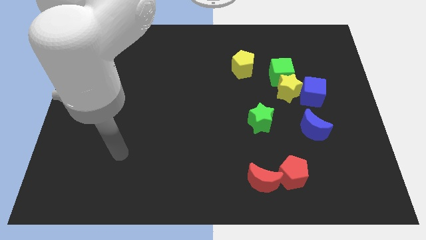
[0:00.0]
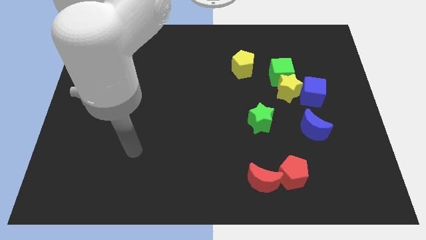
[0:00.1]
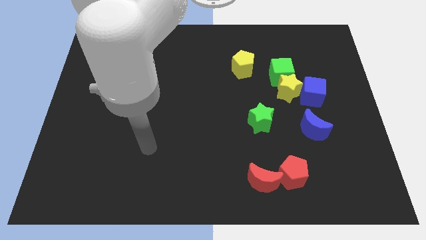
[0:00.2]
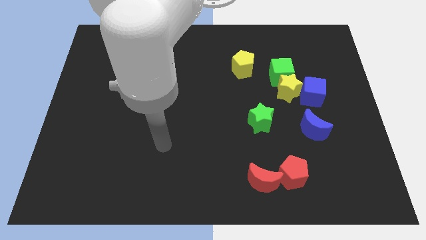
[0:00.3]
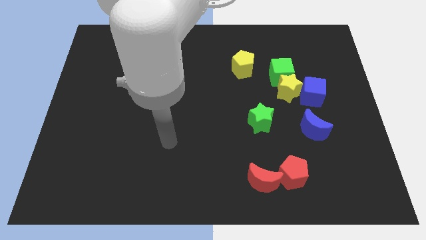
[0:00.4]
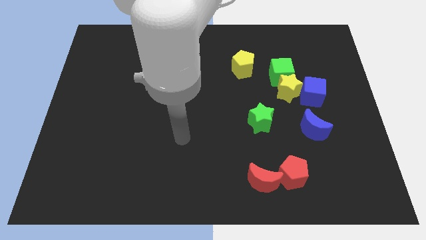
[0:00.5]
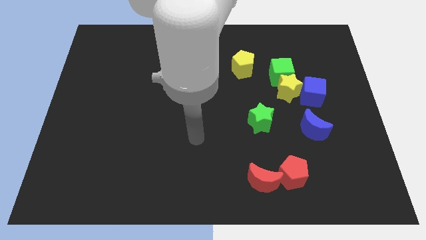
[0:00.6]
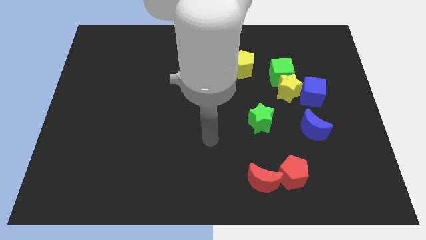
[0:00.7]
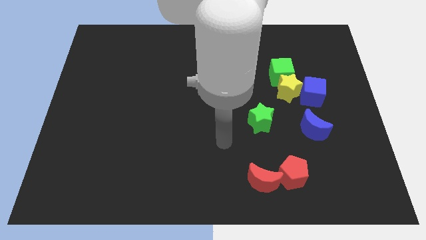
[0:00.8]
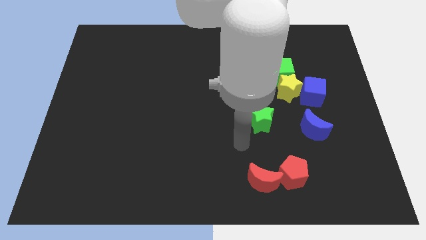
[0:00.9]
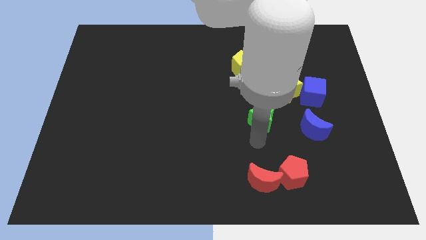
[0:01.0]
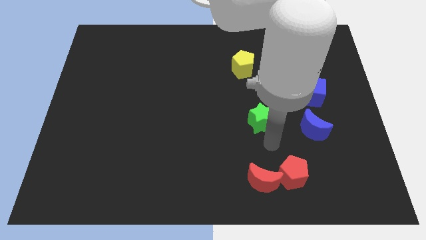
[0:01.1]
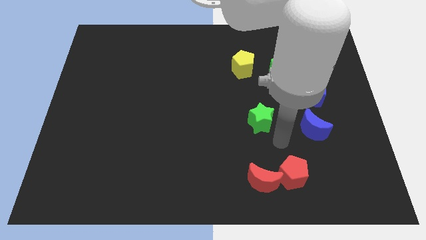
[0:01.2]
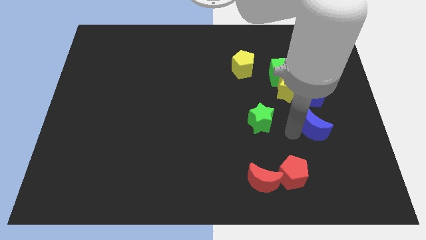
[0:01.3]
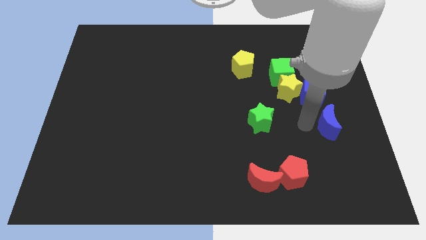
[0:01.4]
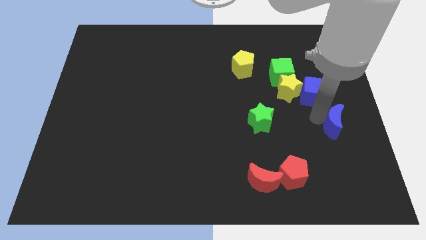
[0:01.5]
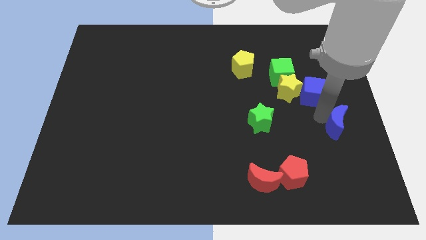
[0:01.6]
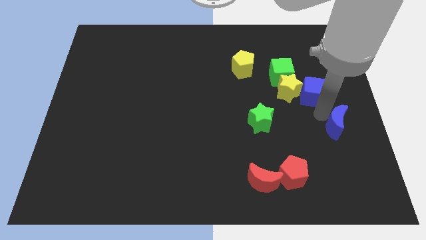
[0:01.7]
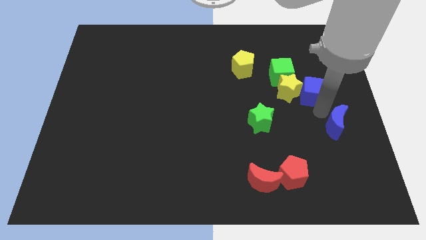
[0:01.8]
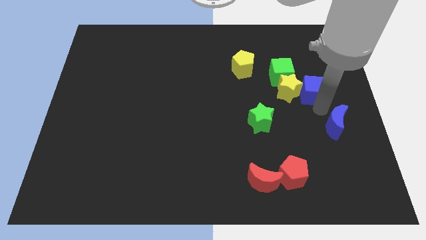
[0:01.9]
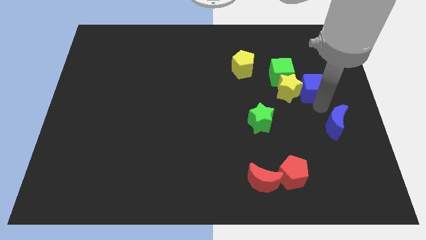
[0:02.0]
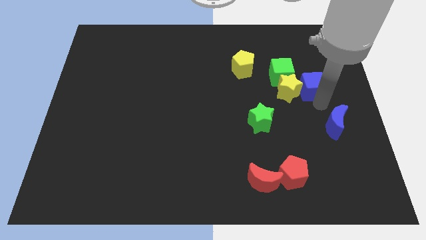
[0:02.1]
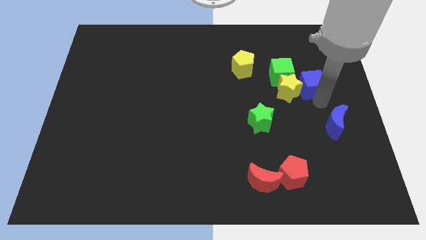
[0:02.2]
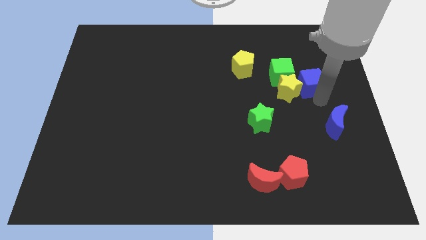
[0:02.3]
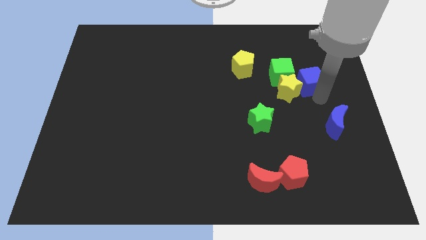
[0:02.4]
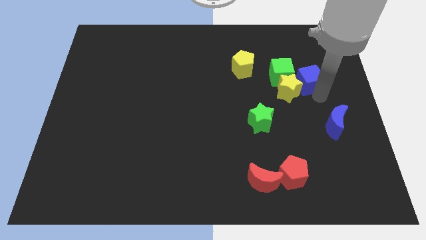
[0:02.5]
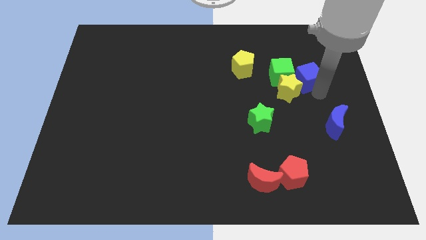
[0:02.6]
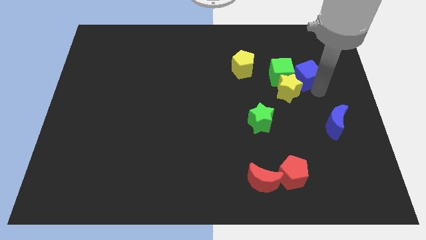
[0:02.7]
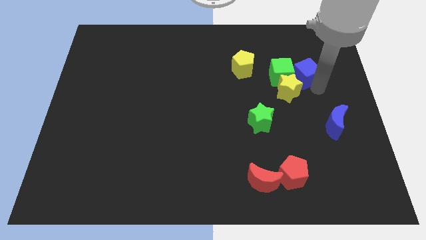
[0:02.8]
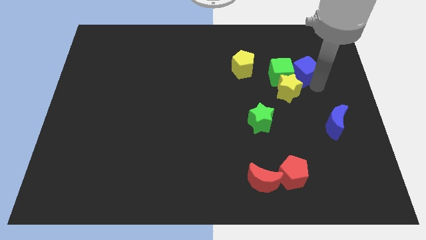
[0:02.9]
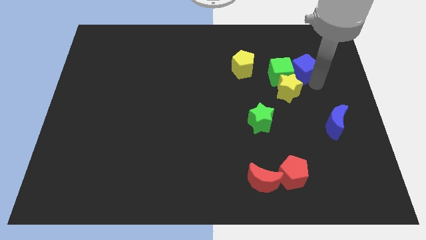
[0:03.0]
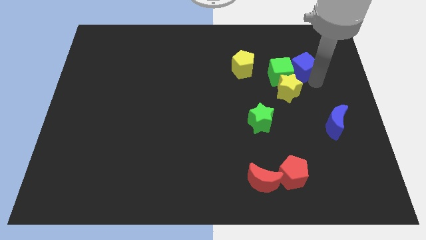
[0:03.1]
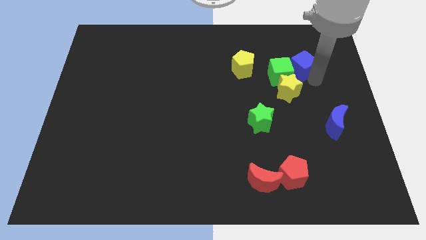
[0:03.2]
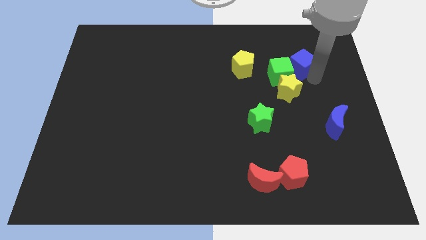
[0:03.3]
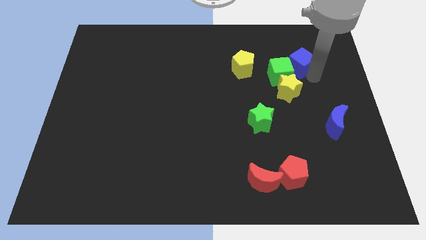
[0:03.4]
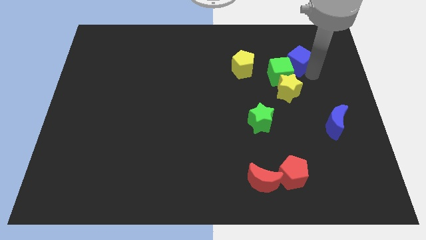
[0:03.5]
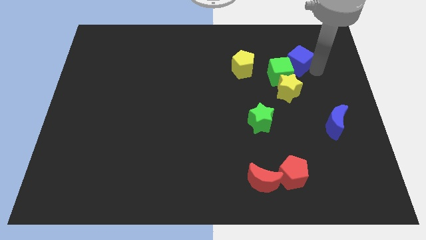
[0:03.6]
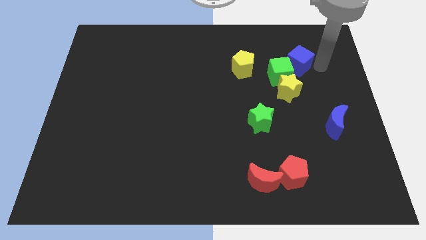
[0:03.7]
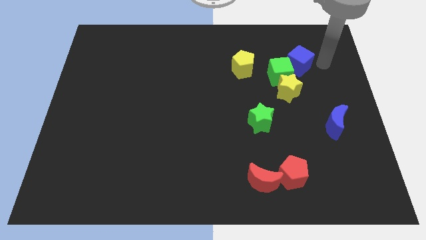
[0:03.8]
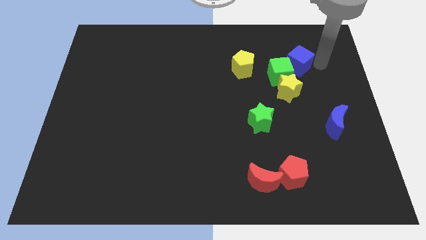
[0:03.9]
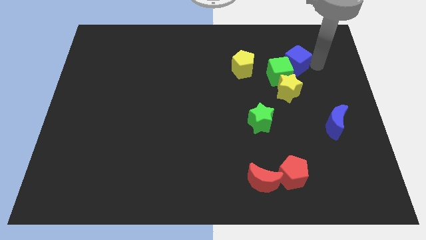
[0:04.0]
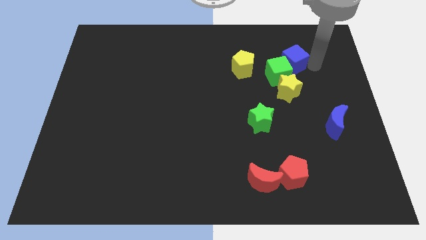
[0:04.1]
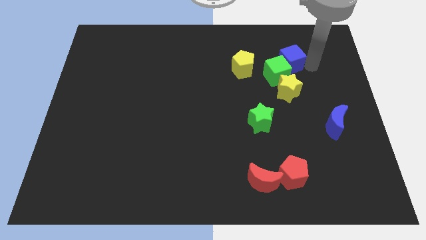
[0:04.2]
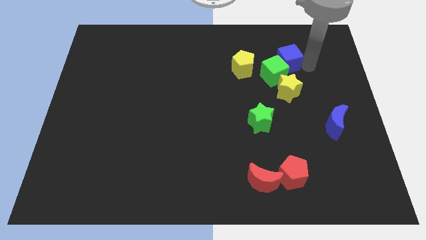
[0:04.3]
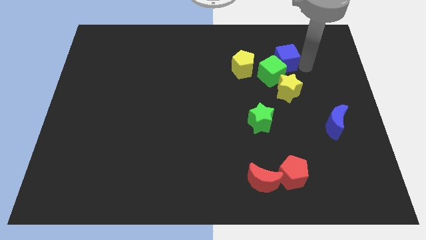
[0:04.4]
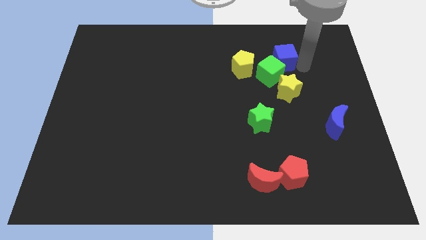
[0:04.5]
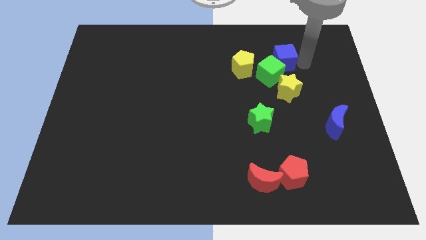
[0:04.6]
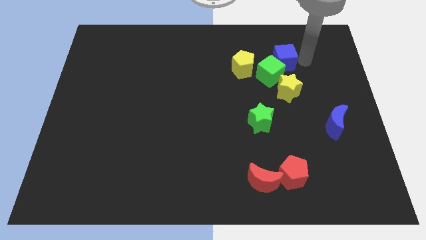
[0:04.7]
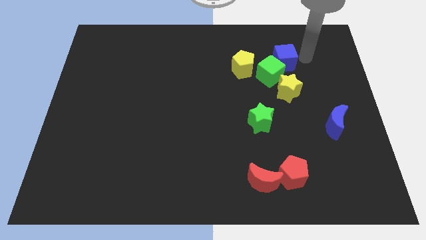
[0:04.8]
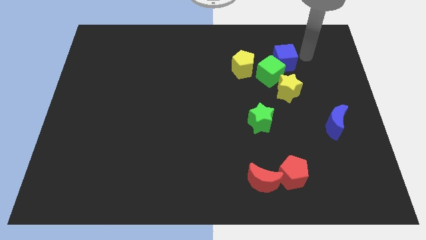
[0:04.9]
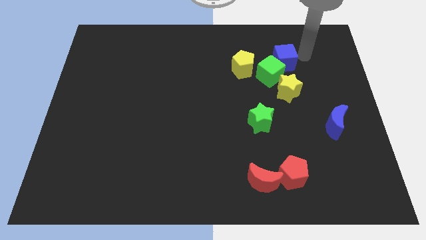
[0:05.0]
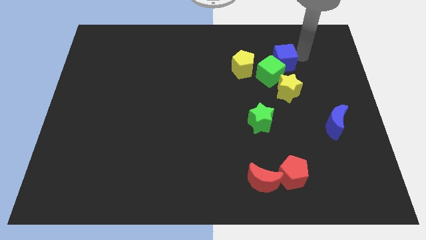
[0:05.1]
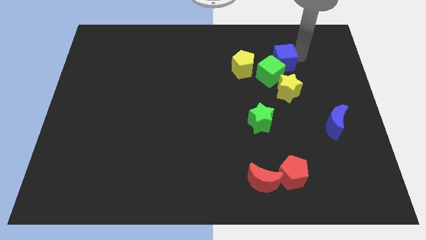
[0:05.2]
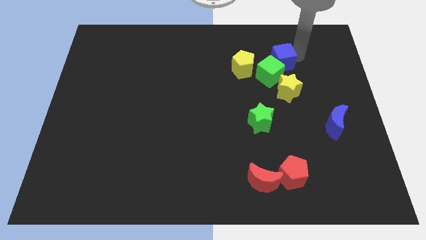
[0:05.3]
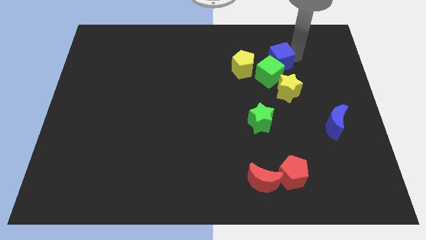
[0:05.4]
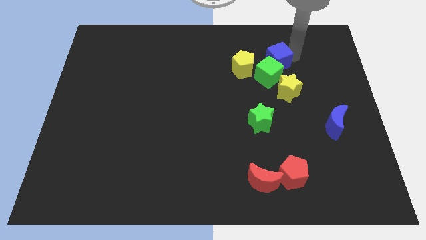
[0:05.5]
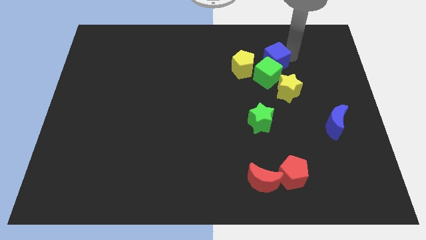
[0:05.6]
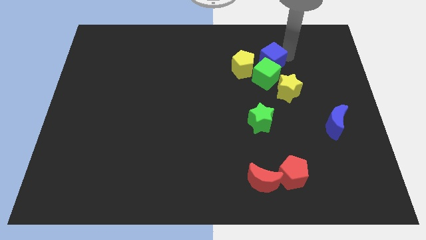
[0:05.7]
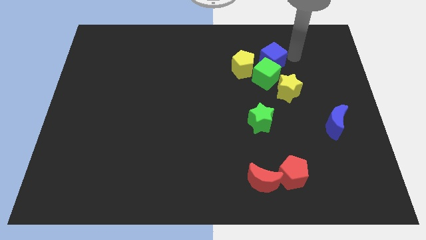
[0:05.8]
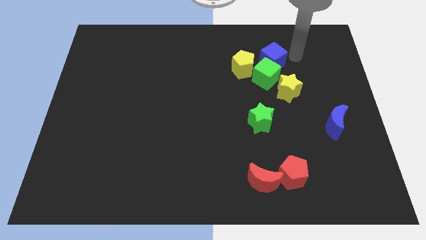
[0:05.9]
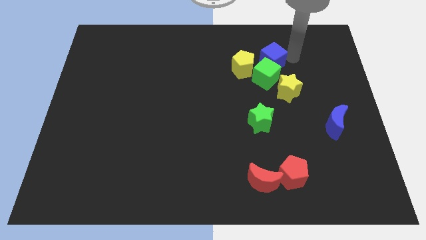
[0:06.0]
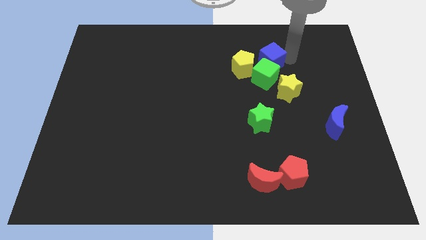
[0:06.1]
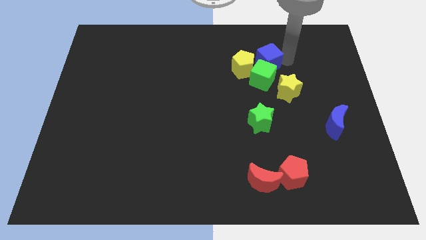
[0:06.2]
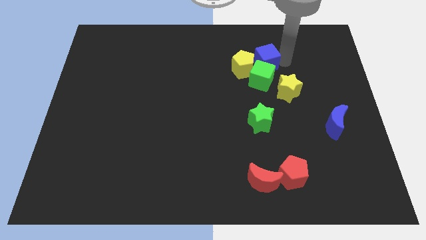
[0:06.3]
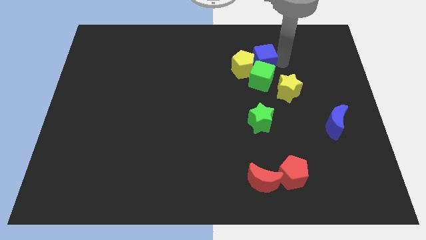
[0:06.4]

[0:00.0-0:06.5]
push the blue cube towards the yellow pentagon

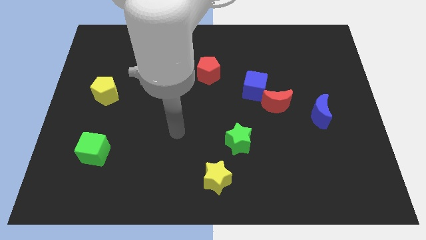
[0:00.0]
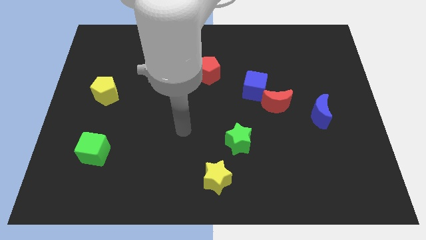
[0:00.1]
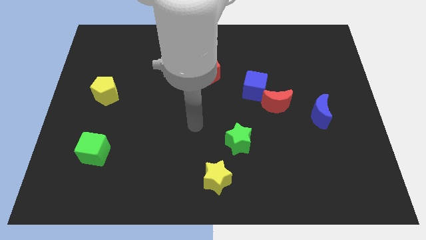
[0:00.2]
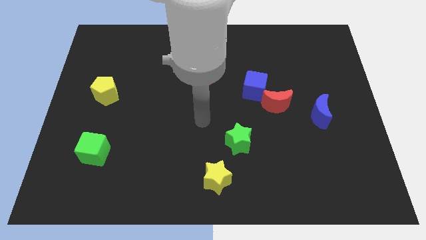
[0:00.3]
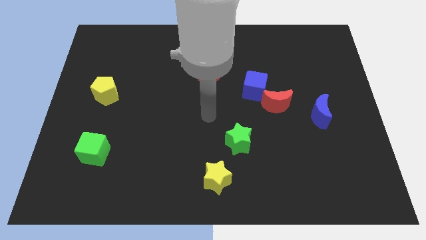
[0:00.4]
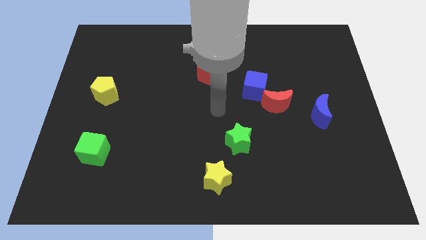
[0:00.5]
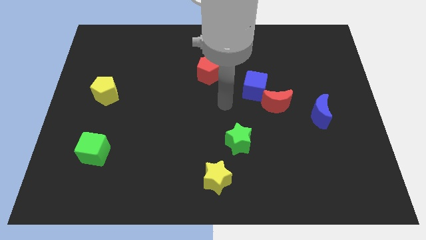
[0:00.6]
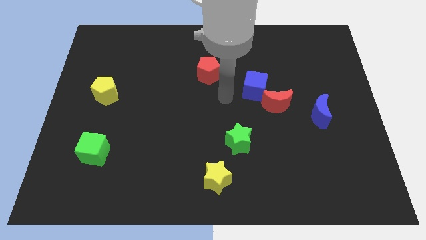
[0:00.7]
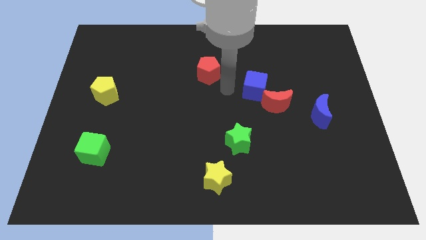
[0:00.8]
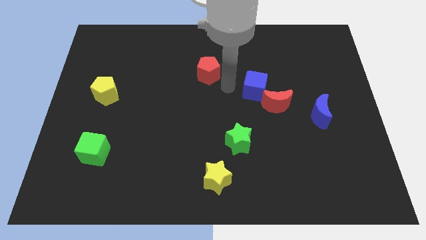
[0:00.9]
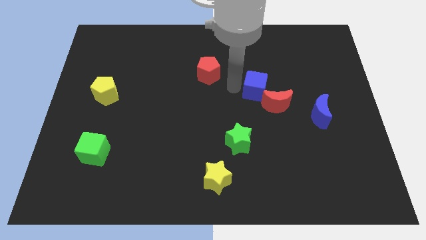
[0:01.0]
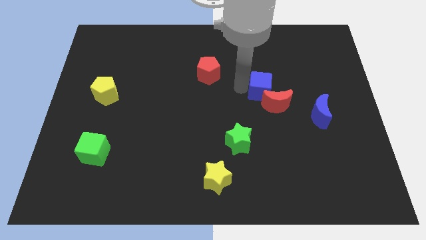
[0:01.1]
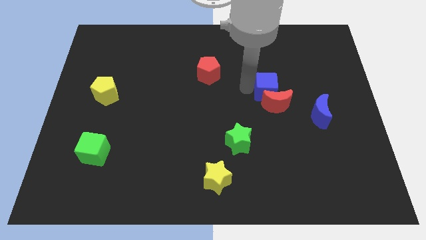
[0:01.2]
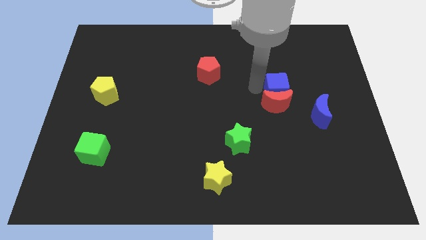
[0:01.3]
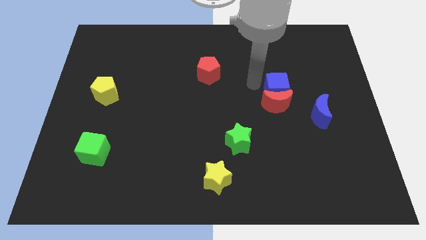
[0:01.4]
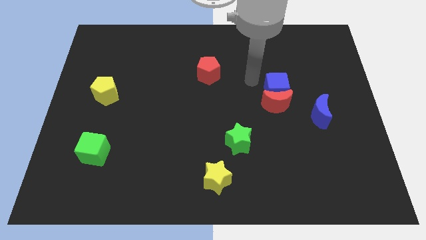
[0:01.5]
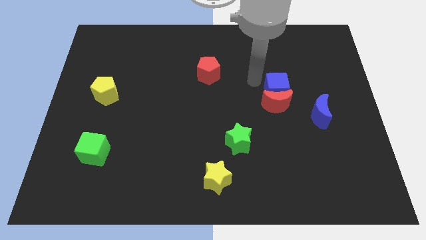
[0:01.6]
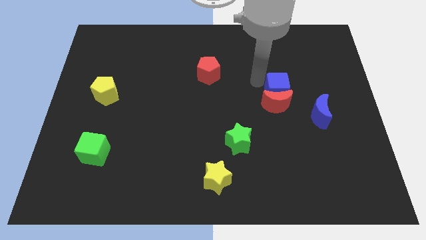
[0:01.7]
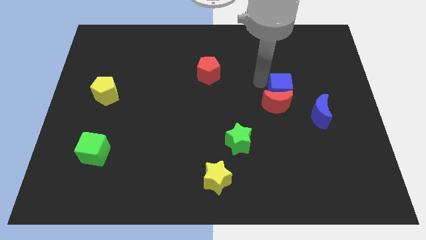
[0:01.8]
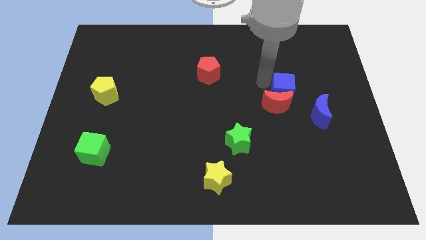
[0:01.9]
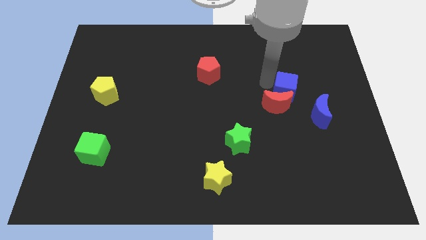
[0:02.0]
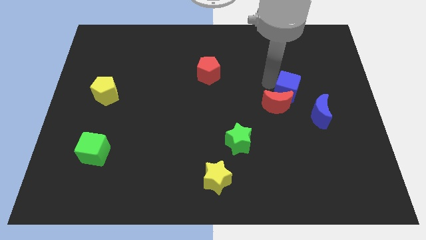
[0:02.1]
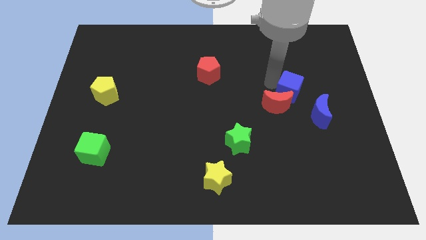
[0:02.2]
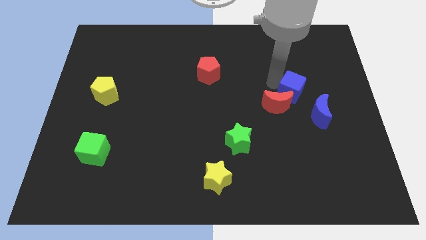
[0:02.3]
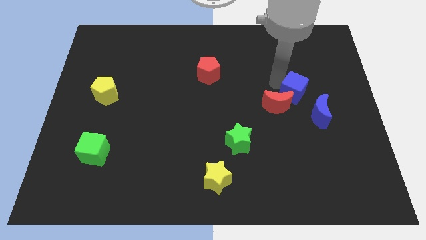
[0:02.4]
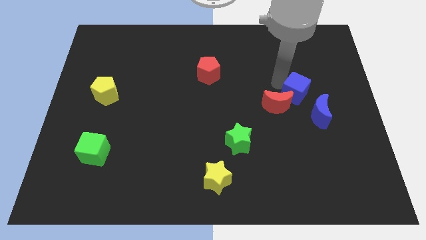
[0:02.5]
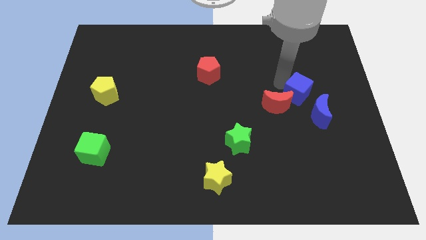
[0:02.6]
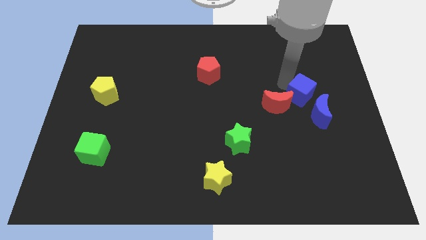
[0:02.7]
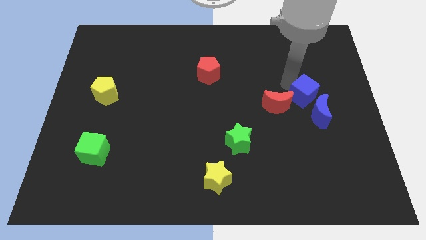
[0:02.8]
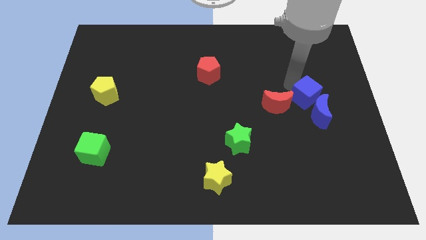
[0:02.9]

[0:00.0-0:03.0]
put the blue cube next to the blue moon
